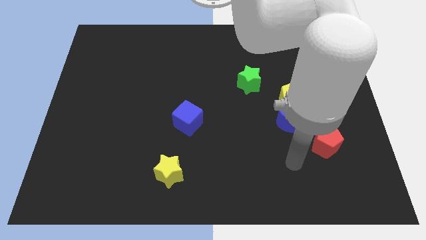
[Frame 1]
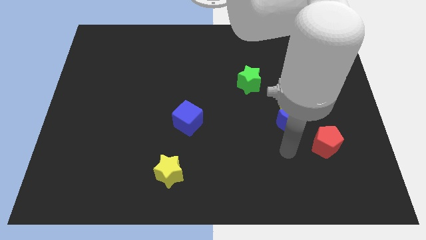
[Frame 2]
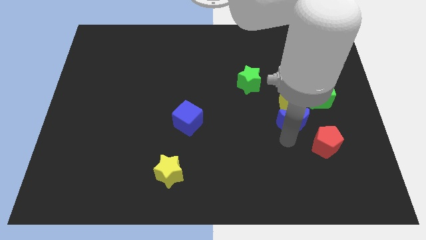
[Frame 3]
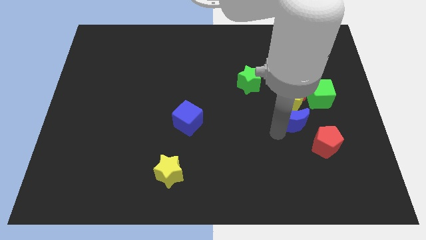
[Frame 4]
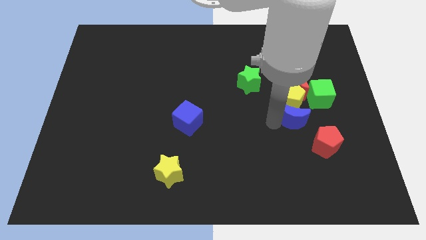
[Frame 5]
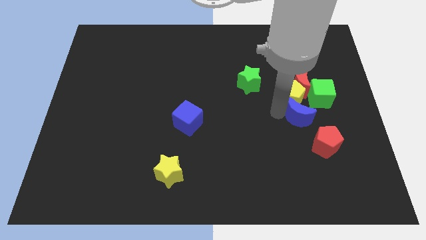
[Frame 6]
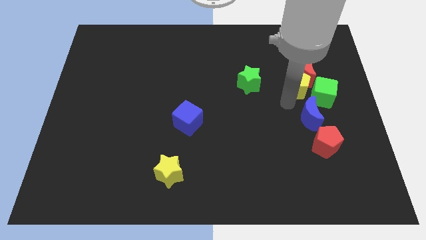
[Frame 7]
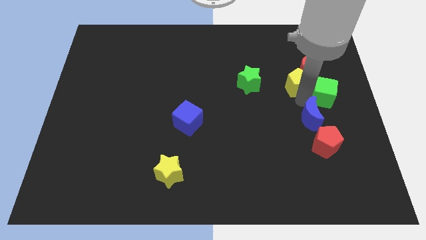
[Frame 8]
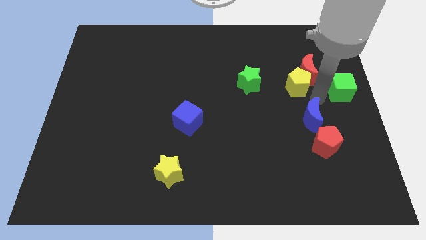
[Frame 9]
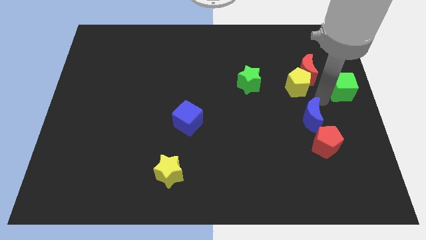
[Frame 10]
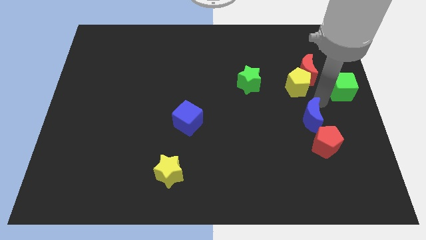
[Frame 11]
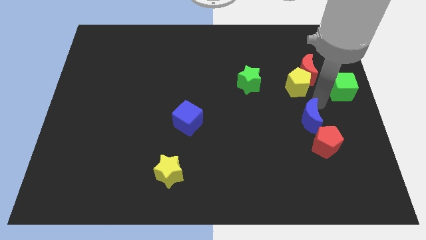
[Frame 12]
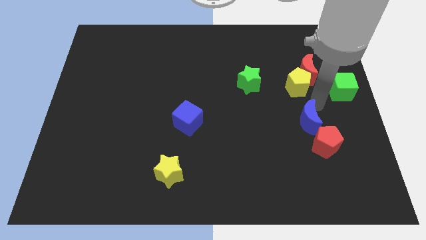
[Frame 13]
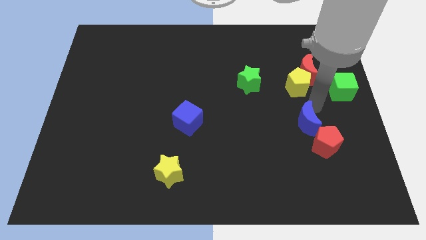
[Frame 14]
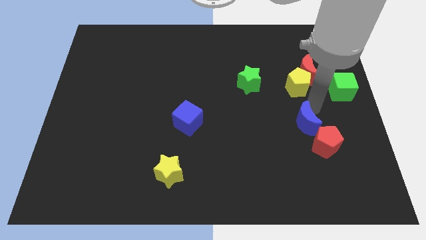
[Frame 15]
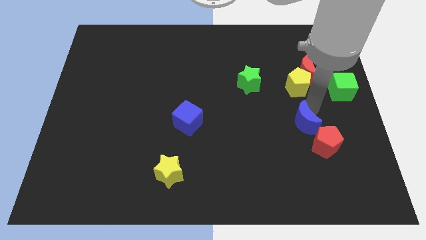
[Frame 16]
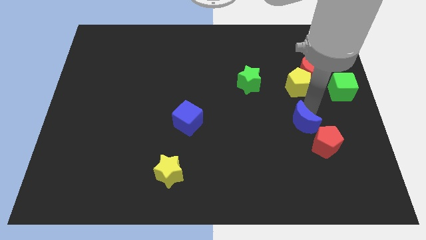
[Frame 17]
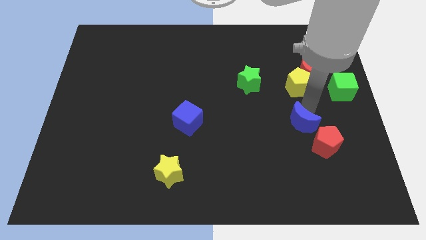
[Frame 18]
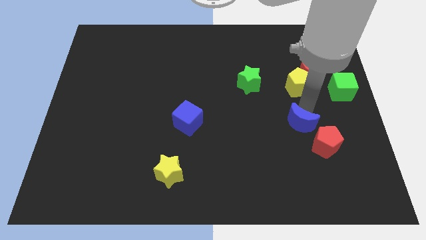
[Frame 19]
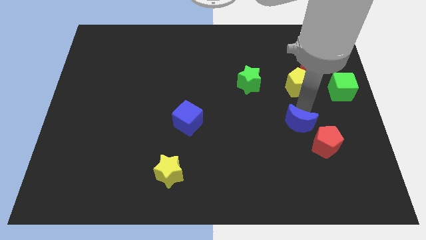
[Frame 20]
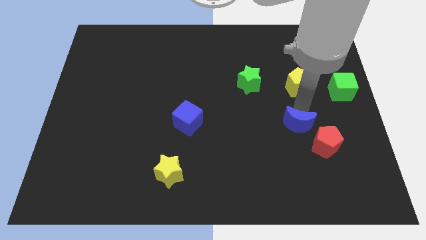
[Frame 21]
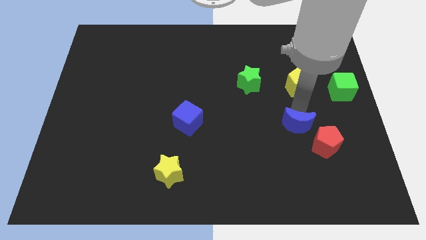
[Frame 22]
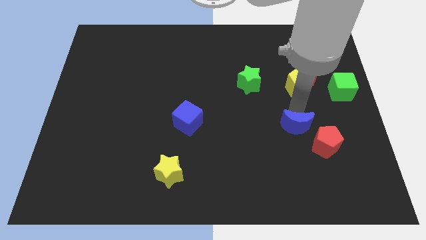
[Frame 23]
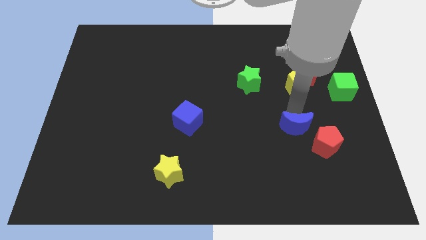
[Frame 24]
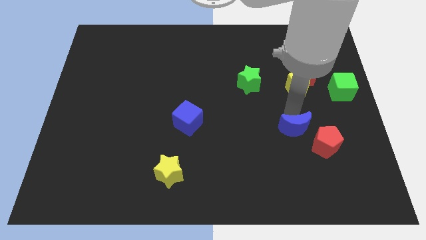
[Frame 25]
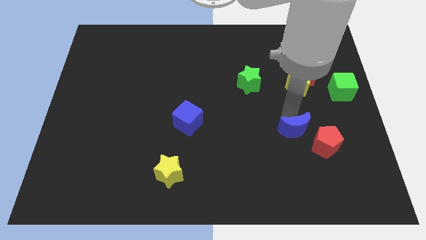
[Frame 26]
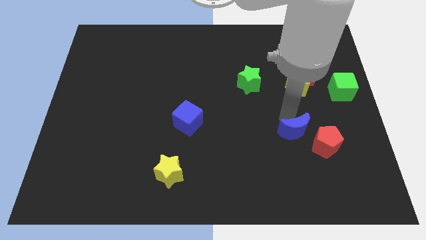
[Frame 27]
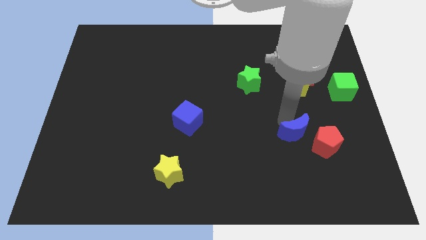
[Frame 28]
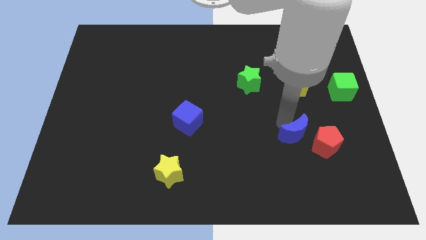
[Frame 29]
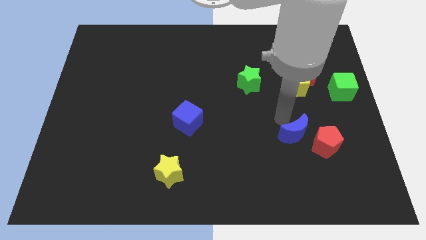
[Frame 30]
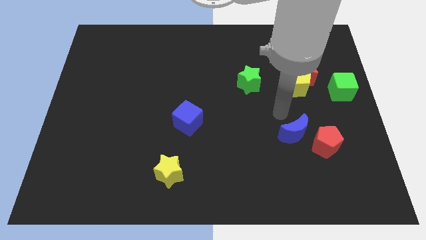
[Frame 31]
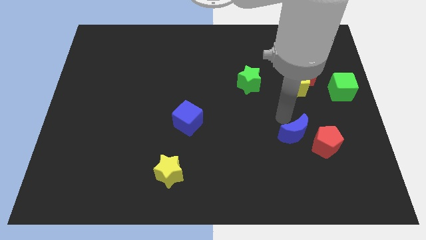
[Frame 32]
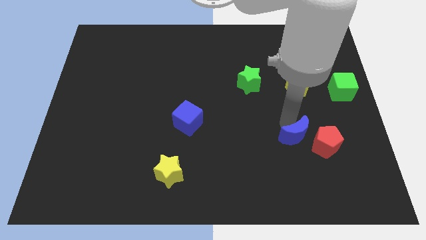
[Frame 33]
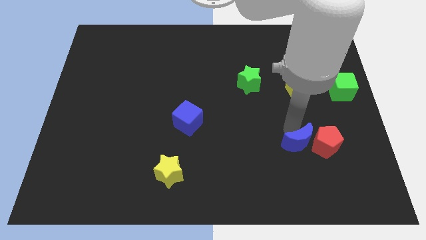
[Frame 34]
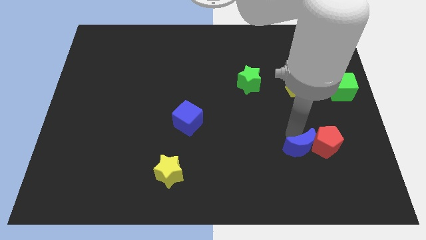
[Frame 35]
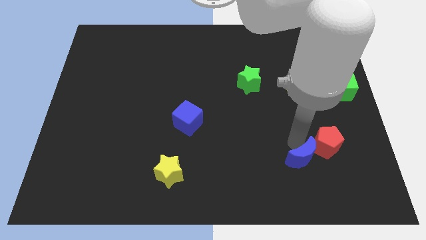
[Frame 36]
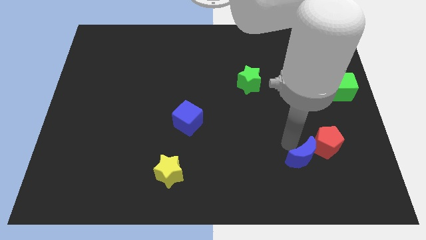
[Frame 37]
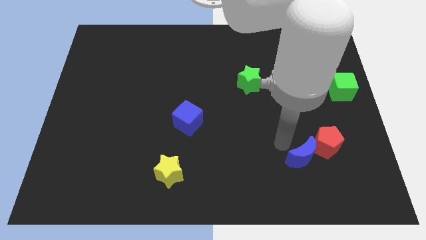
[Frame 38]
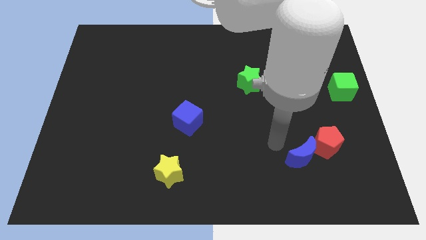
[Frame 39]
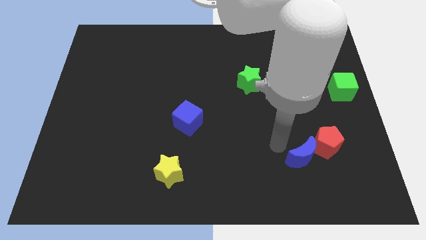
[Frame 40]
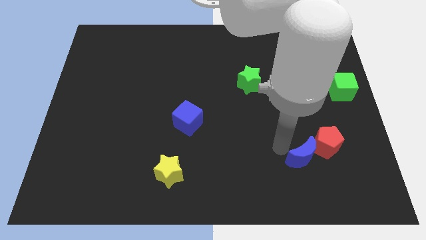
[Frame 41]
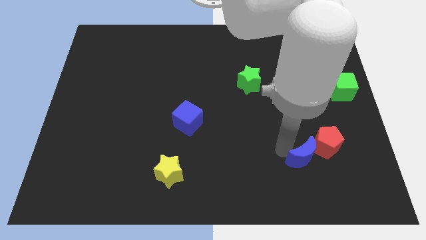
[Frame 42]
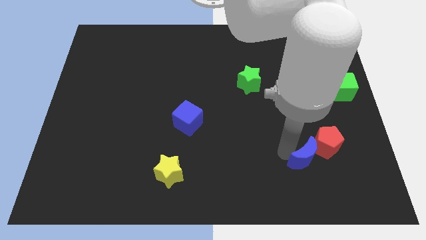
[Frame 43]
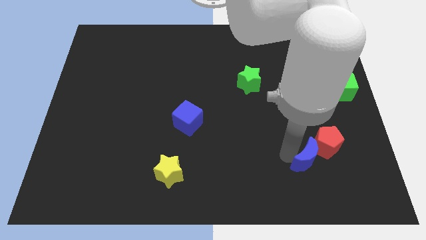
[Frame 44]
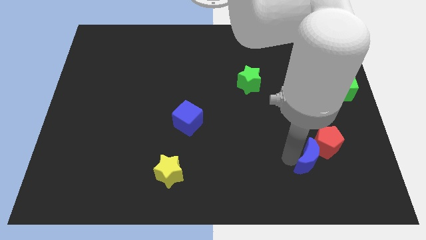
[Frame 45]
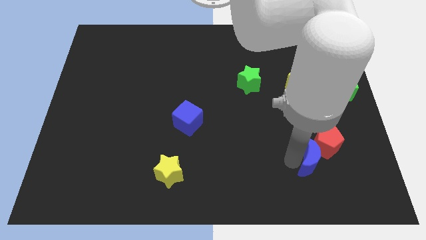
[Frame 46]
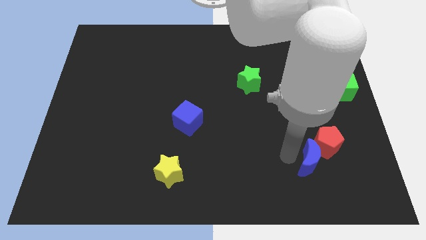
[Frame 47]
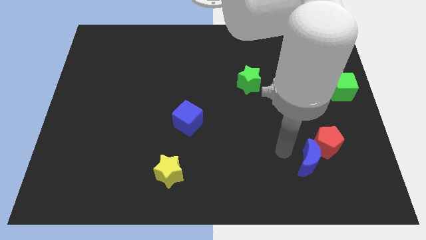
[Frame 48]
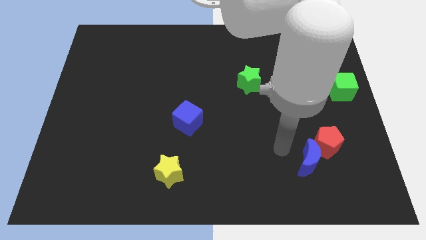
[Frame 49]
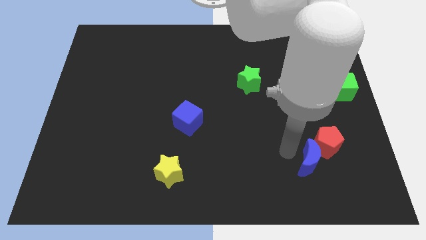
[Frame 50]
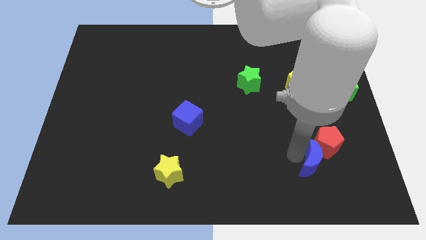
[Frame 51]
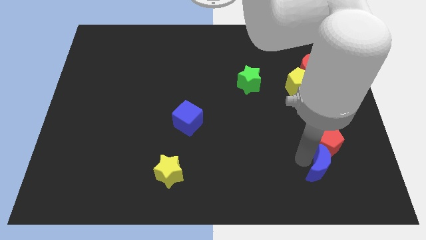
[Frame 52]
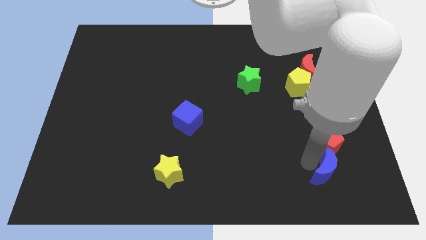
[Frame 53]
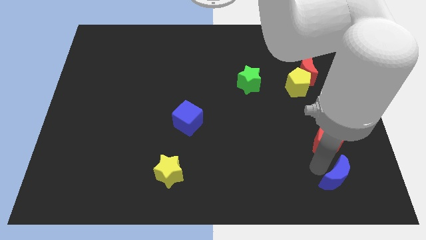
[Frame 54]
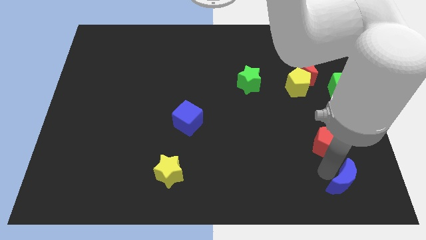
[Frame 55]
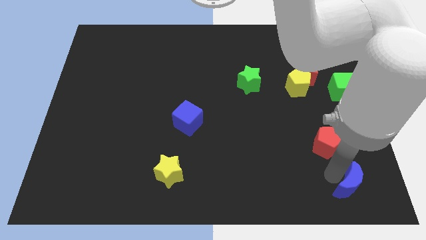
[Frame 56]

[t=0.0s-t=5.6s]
put the blue moon to the lower right corner

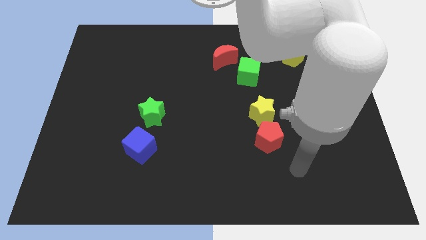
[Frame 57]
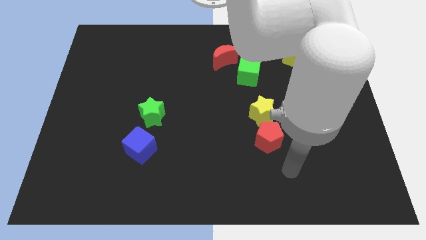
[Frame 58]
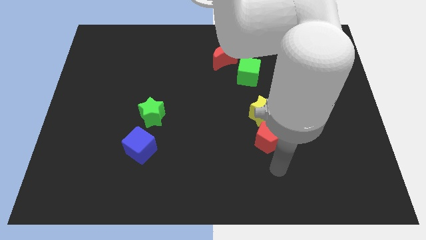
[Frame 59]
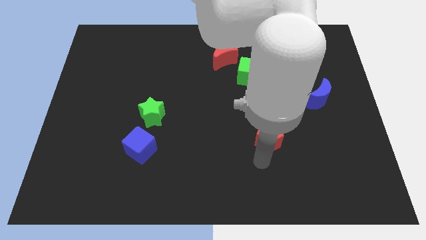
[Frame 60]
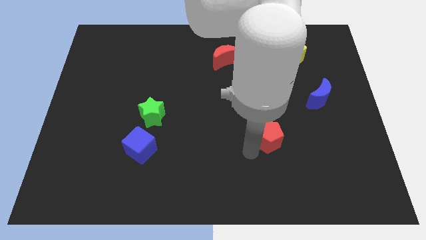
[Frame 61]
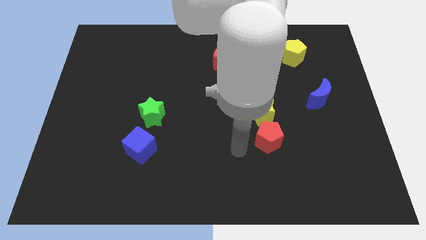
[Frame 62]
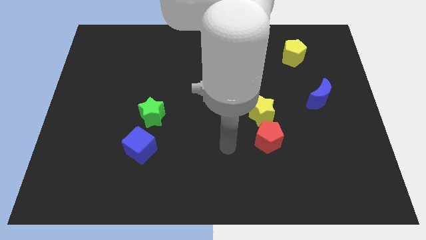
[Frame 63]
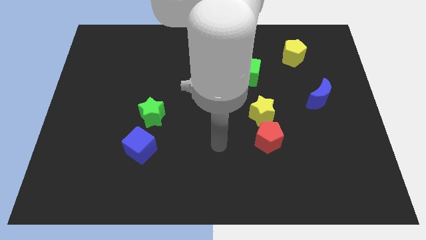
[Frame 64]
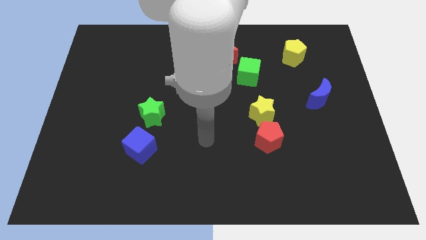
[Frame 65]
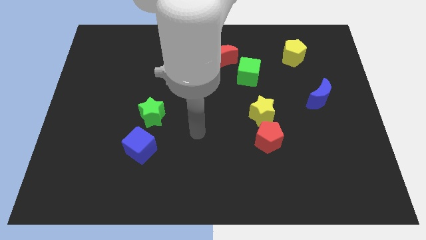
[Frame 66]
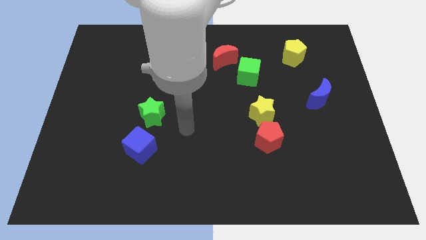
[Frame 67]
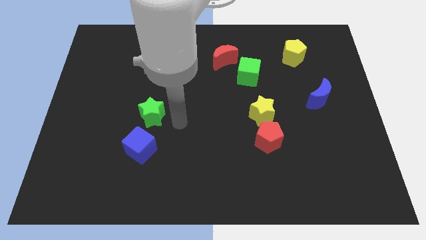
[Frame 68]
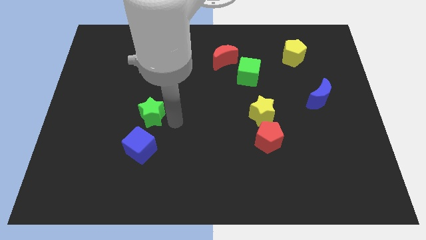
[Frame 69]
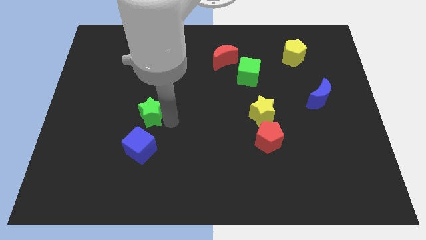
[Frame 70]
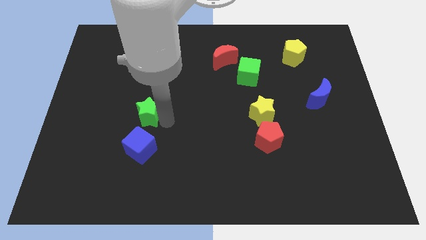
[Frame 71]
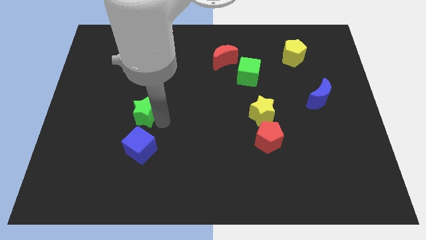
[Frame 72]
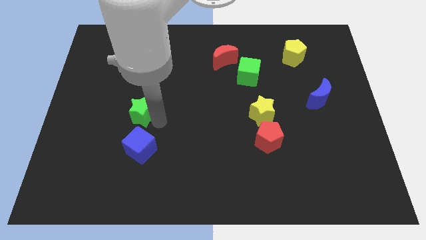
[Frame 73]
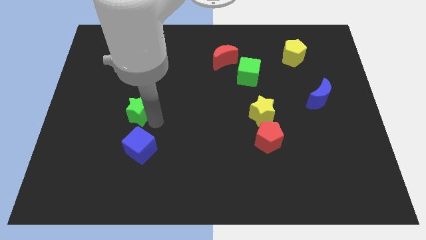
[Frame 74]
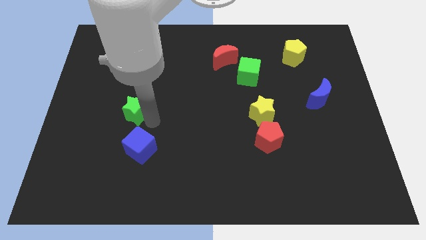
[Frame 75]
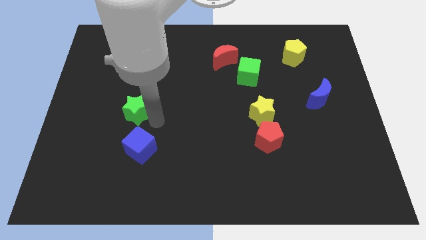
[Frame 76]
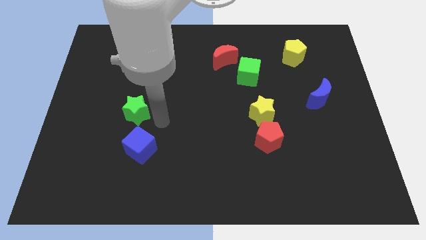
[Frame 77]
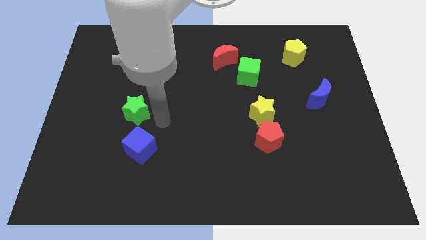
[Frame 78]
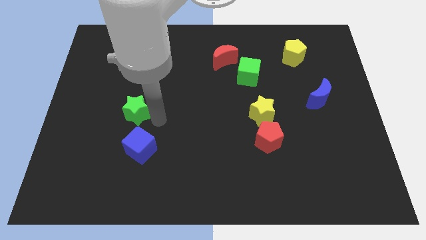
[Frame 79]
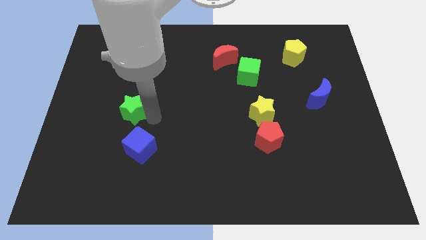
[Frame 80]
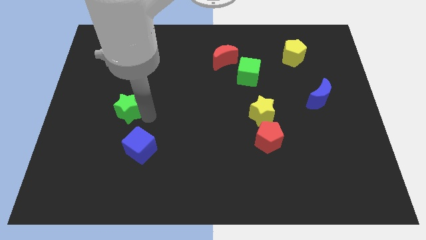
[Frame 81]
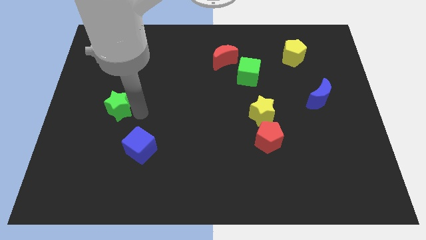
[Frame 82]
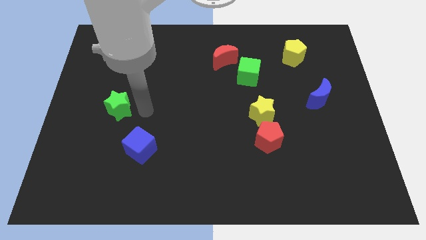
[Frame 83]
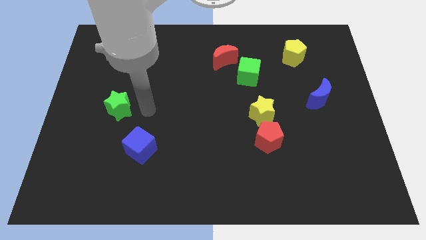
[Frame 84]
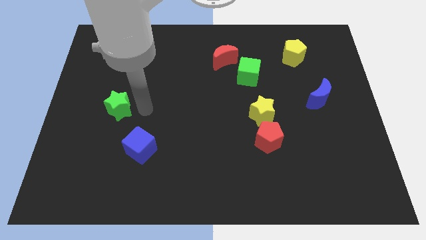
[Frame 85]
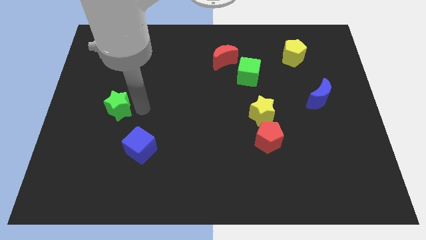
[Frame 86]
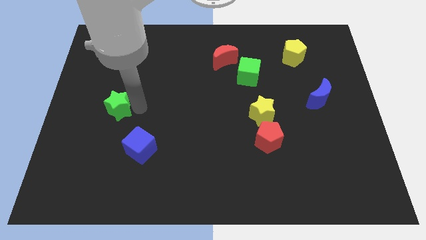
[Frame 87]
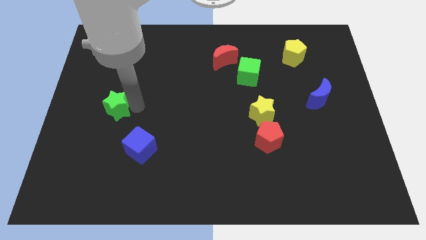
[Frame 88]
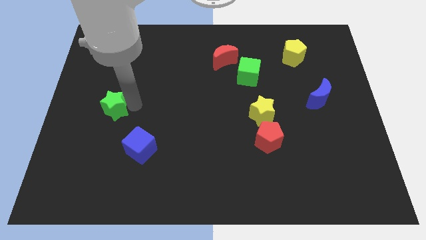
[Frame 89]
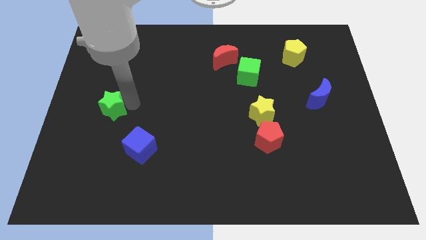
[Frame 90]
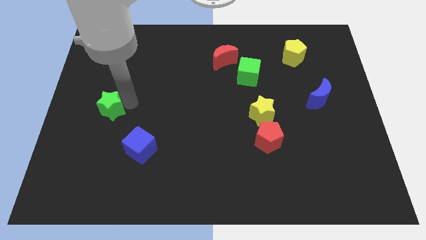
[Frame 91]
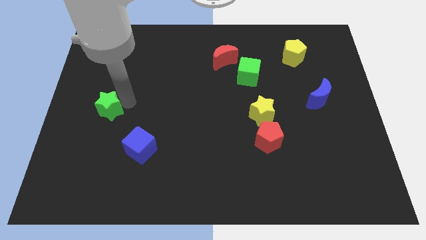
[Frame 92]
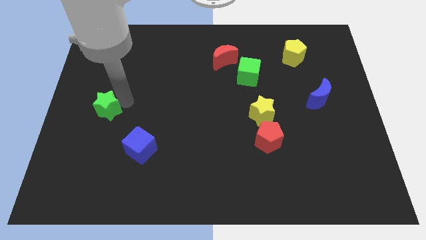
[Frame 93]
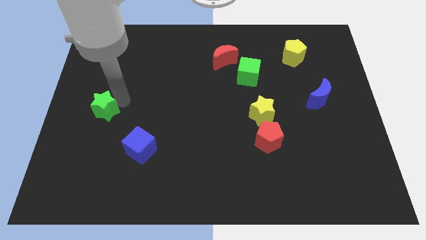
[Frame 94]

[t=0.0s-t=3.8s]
put the green star to the left side
